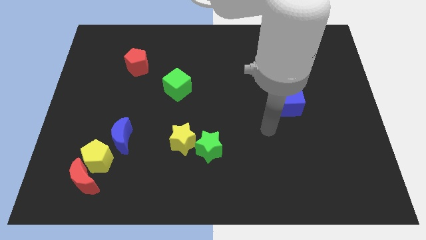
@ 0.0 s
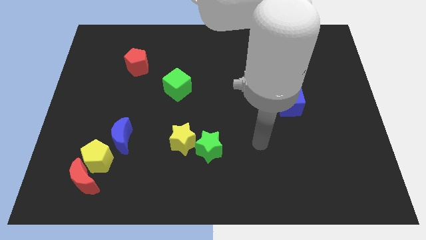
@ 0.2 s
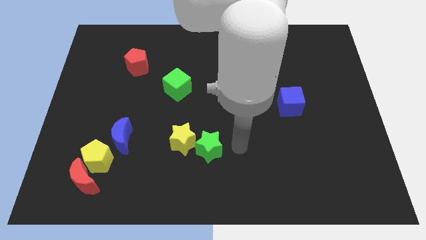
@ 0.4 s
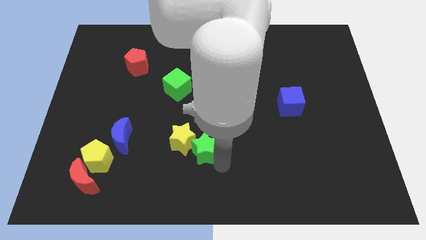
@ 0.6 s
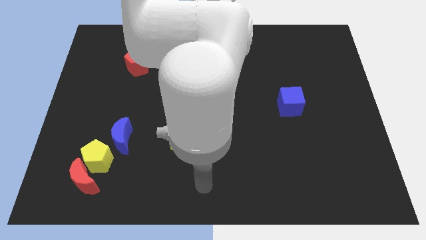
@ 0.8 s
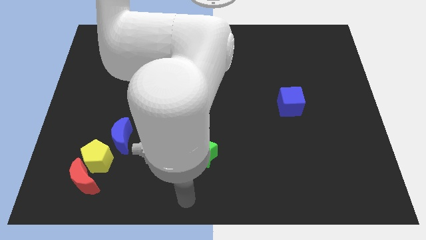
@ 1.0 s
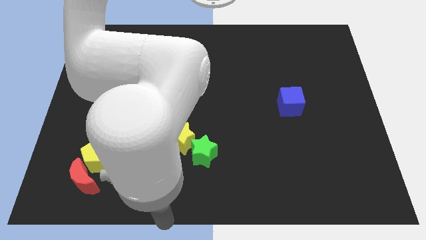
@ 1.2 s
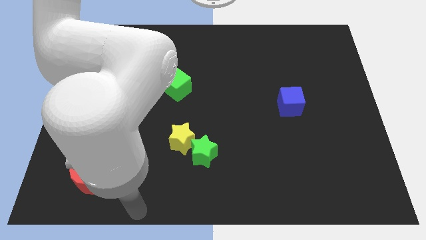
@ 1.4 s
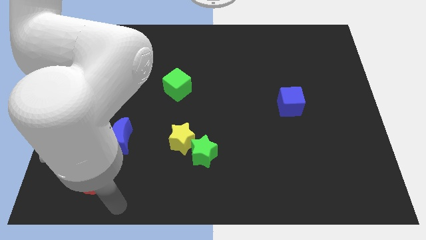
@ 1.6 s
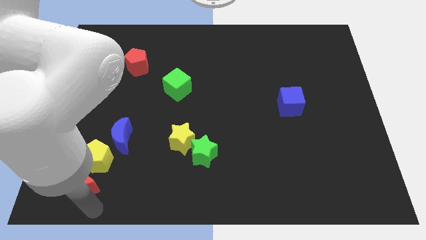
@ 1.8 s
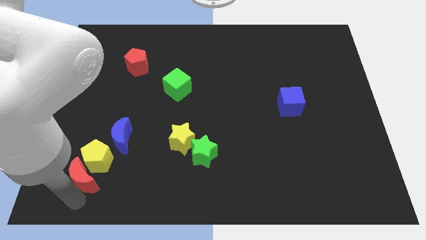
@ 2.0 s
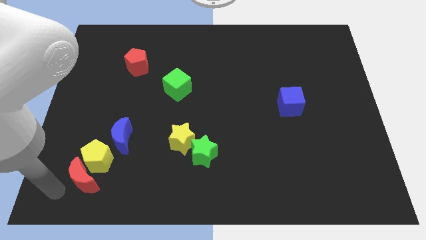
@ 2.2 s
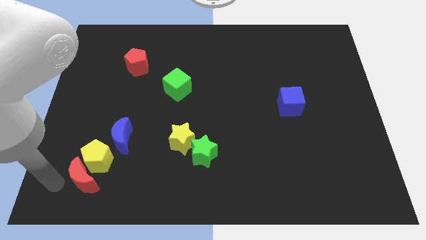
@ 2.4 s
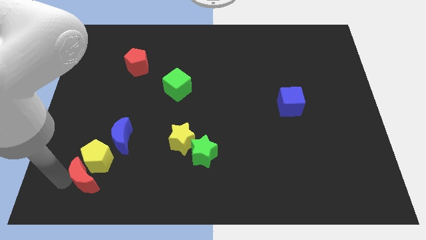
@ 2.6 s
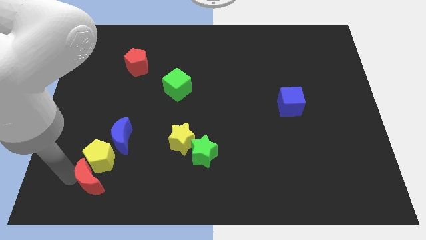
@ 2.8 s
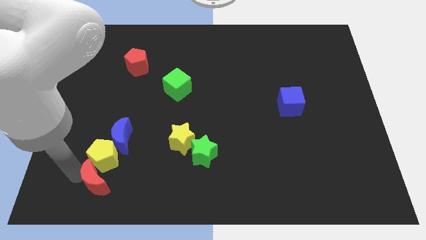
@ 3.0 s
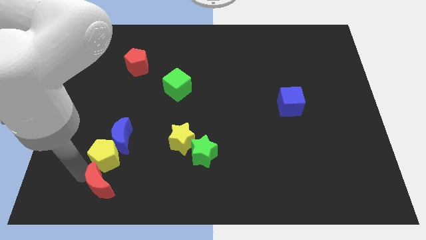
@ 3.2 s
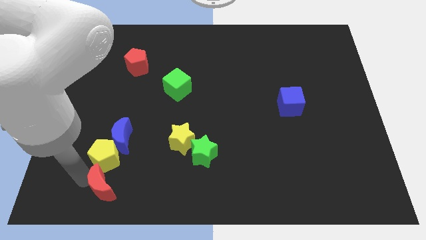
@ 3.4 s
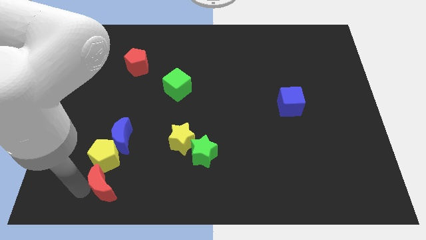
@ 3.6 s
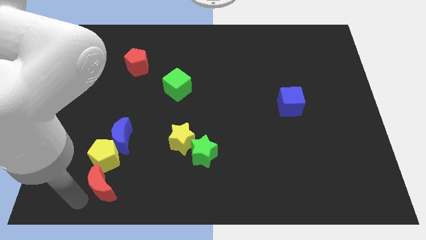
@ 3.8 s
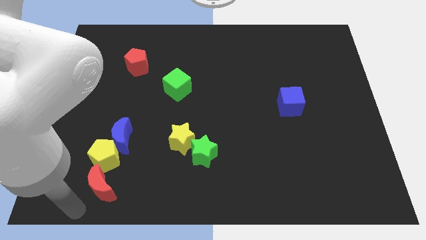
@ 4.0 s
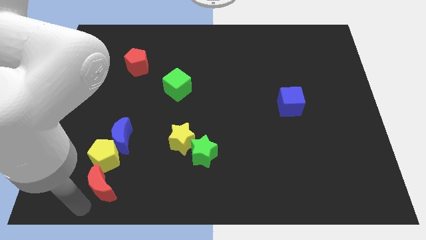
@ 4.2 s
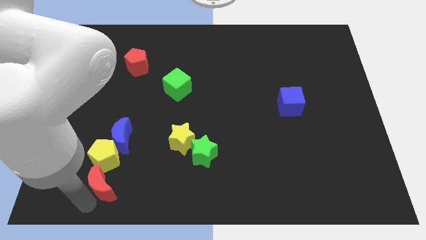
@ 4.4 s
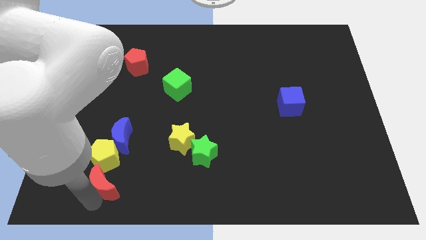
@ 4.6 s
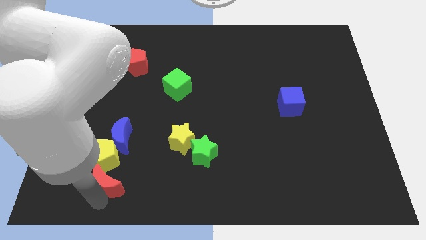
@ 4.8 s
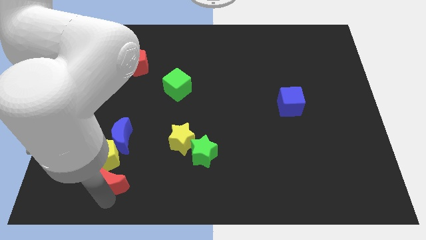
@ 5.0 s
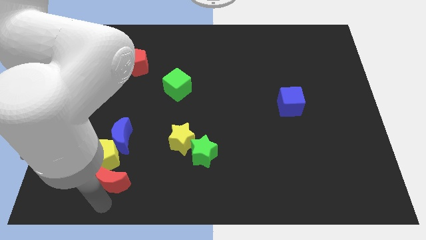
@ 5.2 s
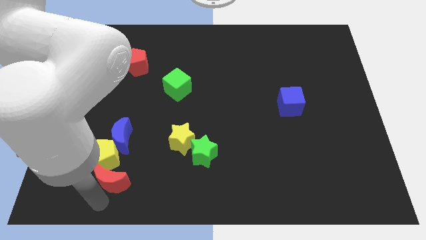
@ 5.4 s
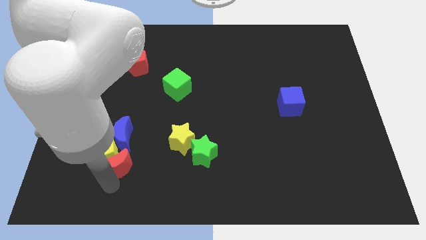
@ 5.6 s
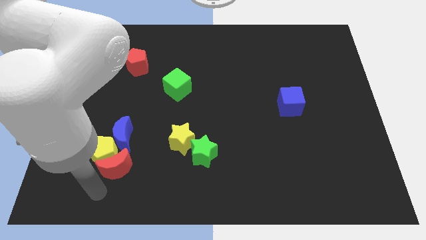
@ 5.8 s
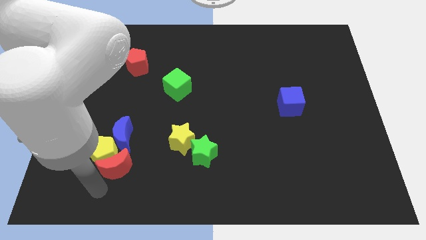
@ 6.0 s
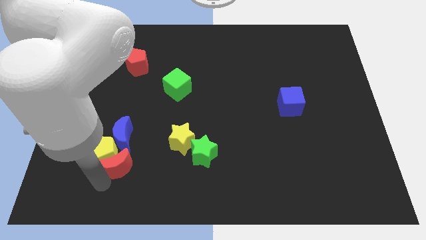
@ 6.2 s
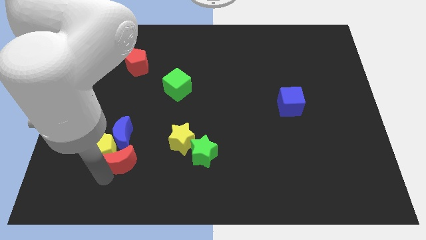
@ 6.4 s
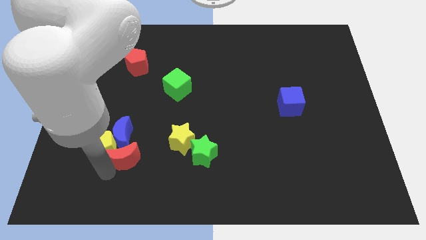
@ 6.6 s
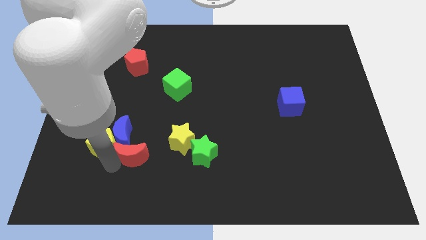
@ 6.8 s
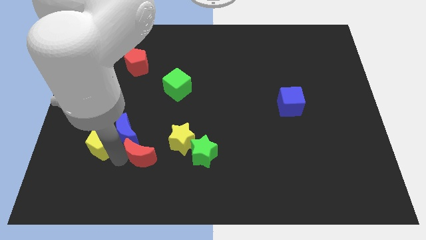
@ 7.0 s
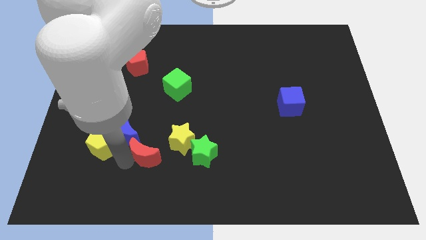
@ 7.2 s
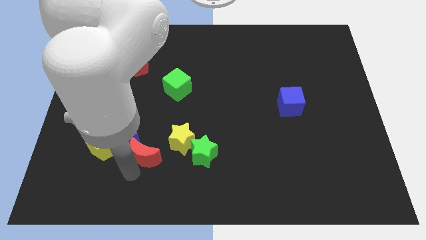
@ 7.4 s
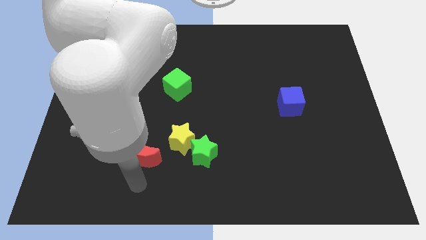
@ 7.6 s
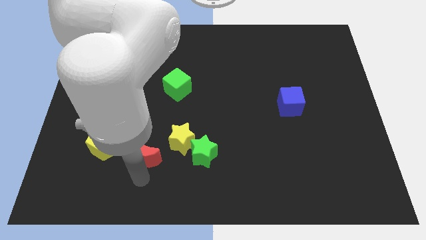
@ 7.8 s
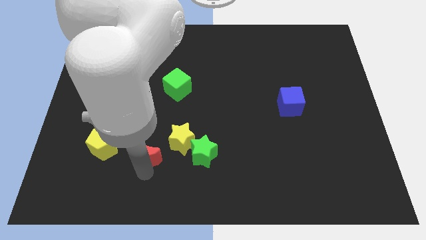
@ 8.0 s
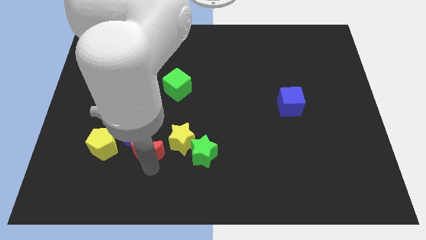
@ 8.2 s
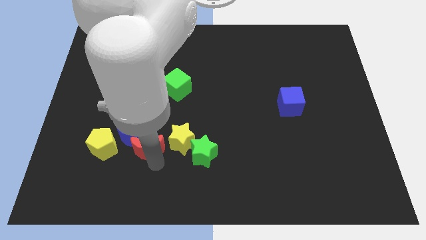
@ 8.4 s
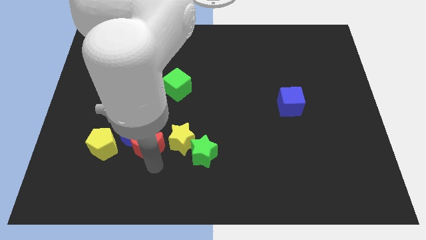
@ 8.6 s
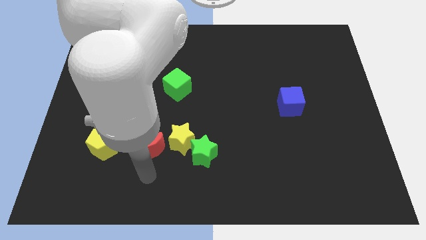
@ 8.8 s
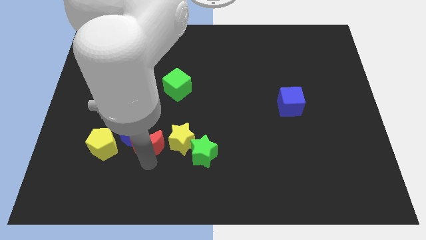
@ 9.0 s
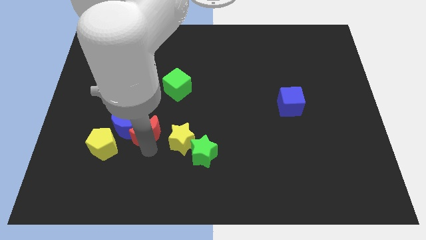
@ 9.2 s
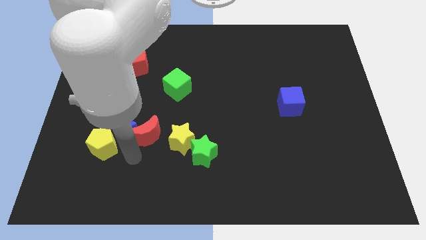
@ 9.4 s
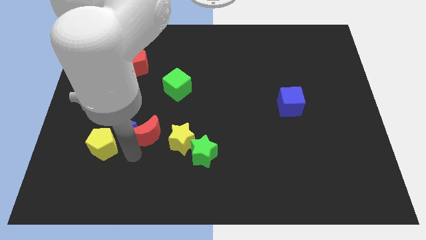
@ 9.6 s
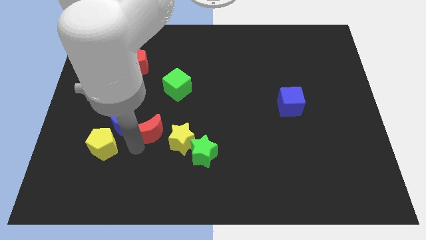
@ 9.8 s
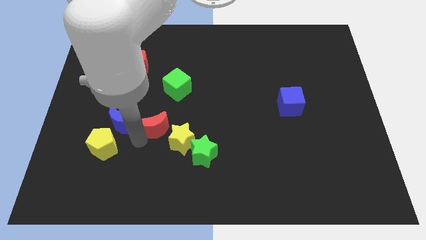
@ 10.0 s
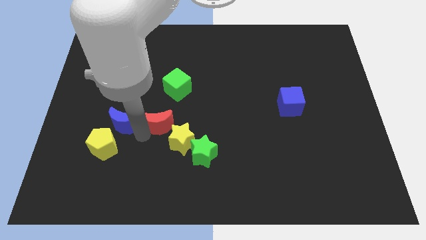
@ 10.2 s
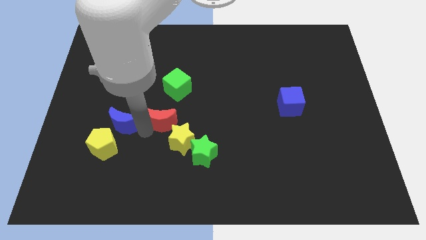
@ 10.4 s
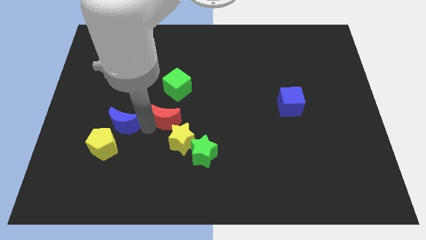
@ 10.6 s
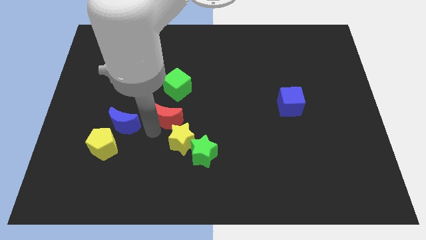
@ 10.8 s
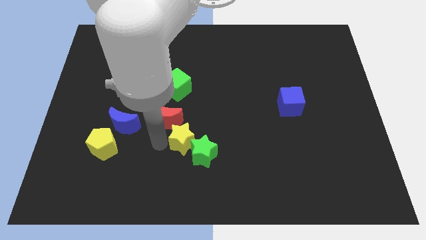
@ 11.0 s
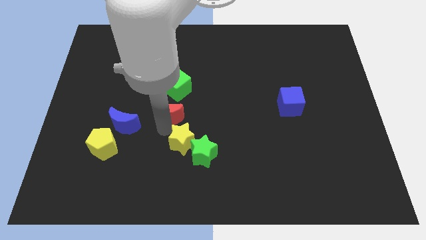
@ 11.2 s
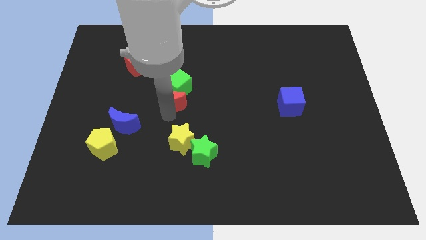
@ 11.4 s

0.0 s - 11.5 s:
move the red moon to the green cube

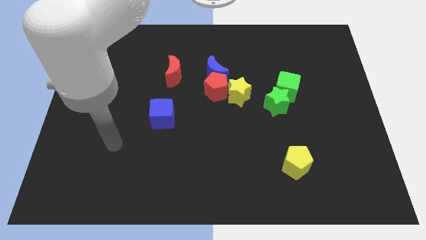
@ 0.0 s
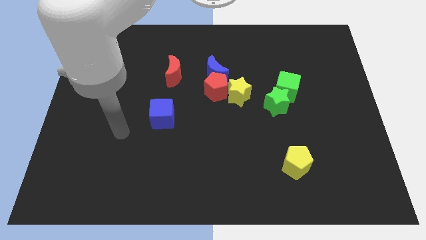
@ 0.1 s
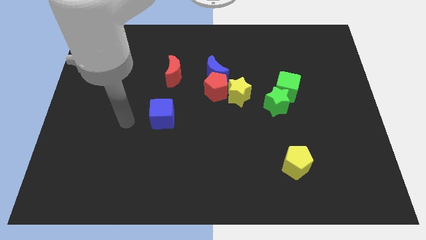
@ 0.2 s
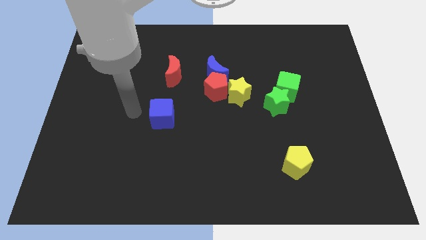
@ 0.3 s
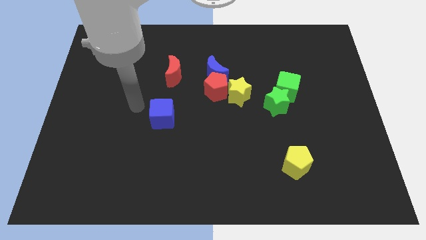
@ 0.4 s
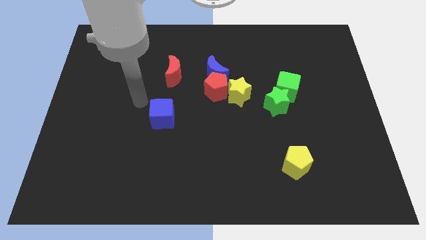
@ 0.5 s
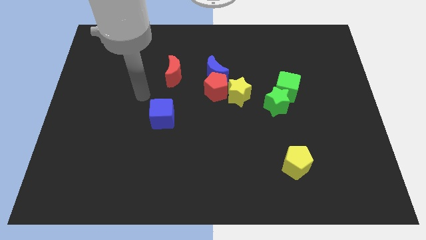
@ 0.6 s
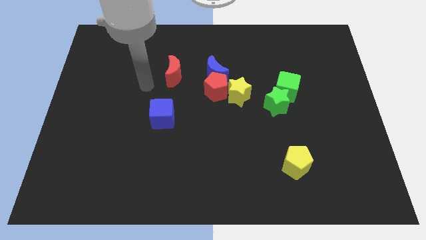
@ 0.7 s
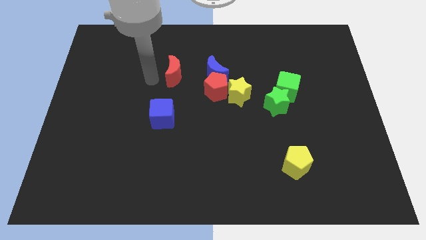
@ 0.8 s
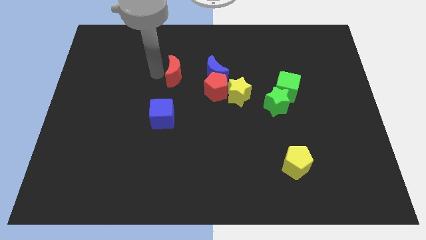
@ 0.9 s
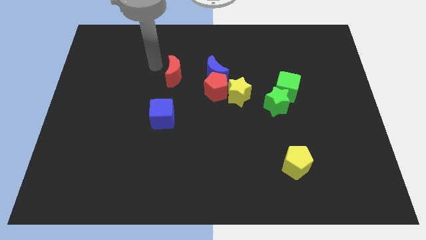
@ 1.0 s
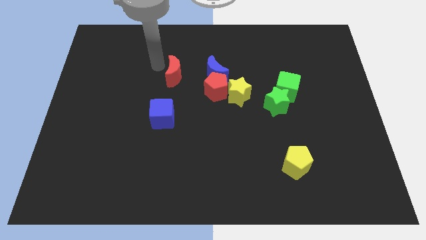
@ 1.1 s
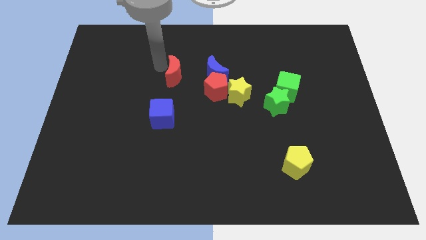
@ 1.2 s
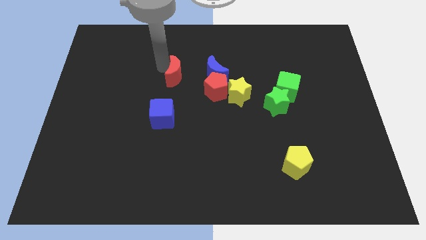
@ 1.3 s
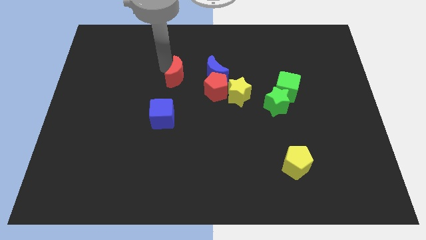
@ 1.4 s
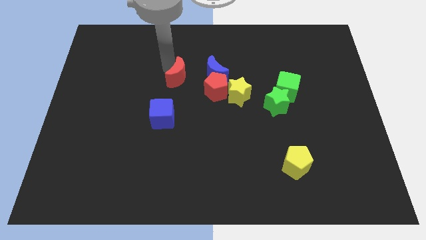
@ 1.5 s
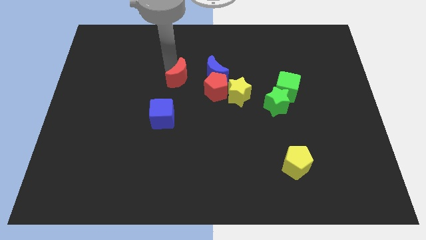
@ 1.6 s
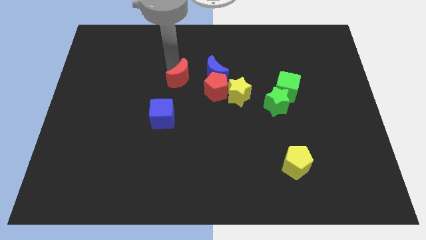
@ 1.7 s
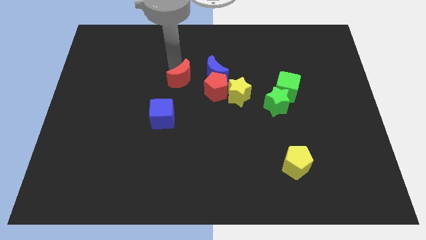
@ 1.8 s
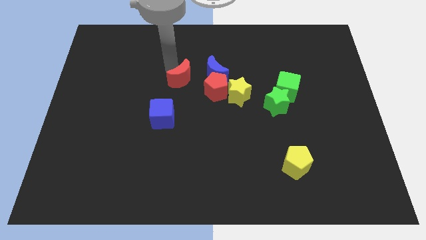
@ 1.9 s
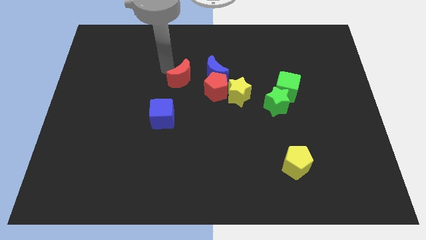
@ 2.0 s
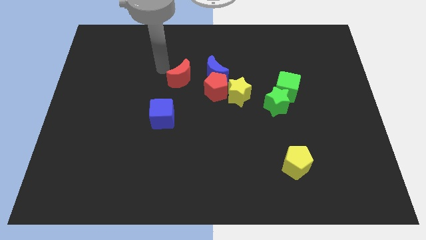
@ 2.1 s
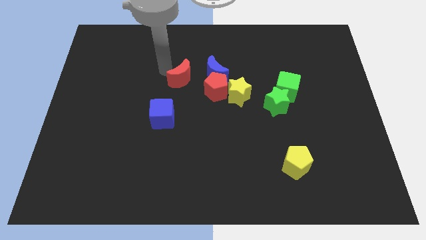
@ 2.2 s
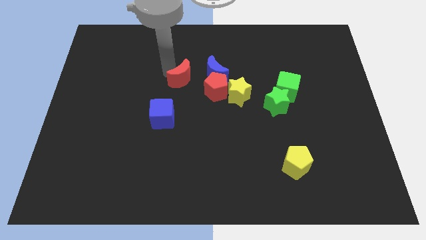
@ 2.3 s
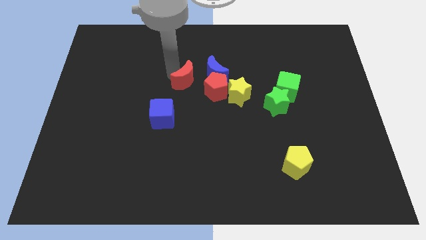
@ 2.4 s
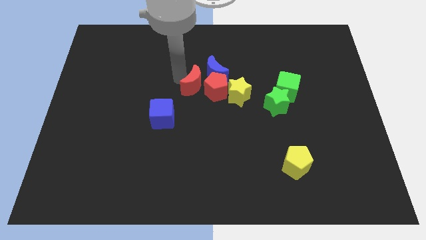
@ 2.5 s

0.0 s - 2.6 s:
push the red moon close to the red pentagon
